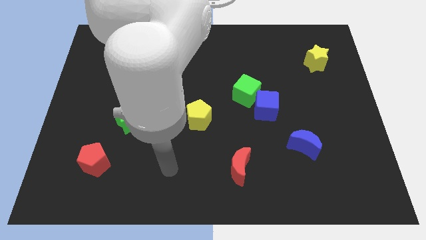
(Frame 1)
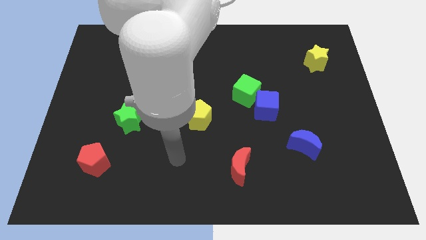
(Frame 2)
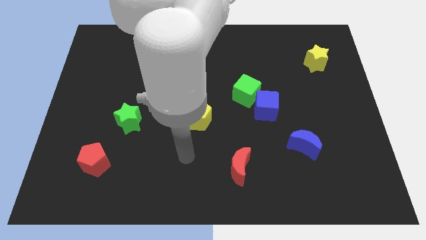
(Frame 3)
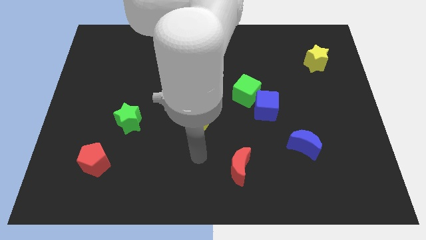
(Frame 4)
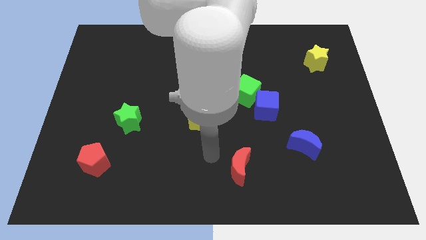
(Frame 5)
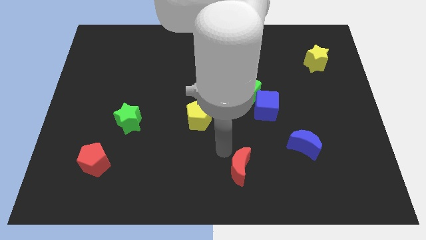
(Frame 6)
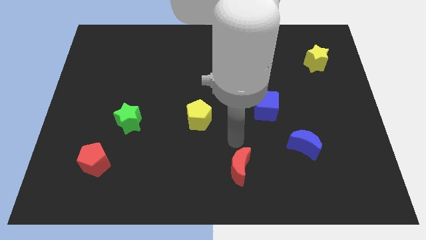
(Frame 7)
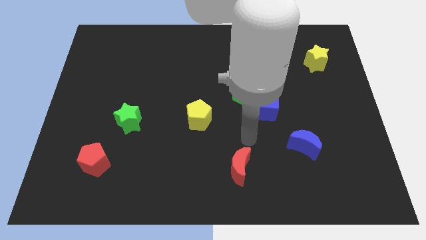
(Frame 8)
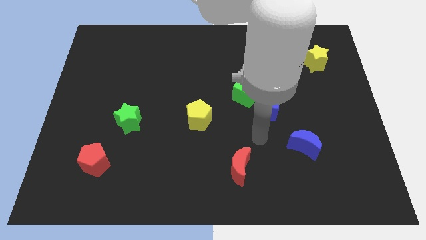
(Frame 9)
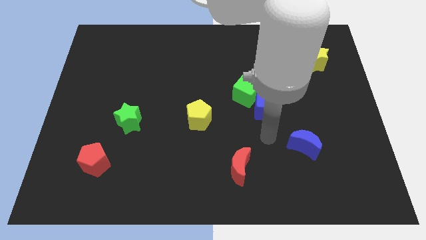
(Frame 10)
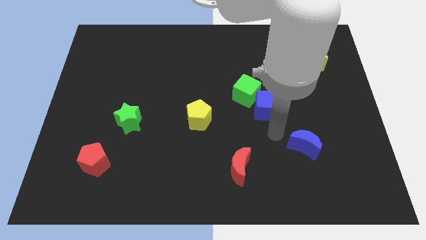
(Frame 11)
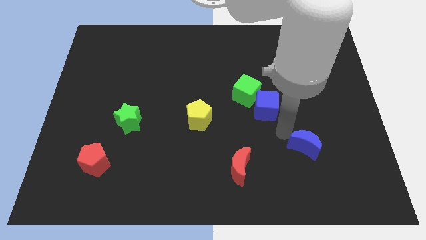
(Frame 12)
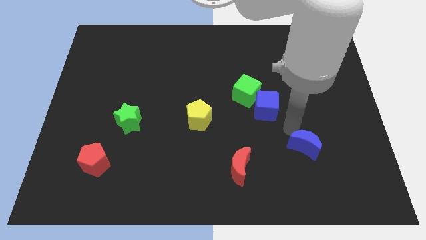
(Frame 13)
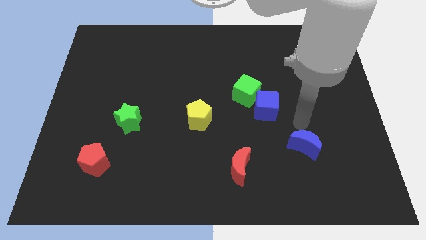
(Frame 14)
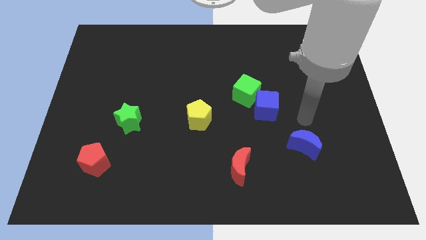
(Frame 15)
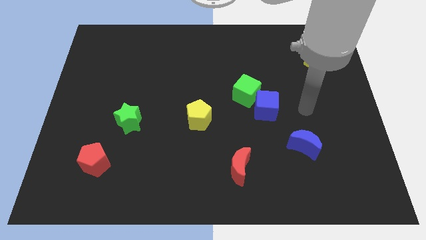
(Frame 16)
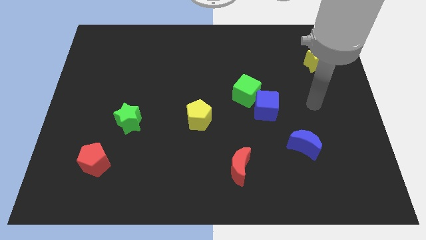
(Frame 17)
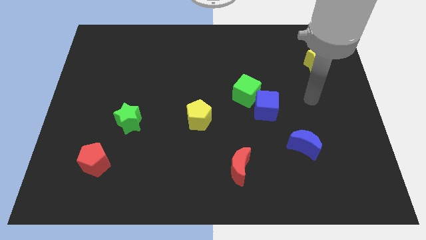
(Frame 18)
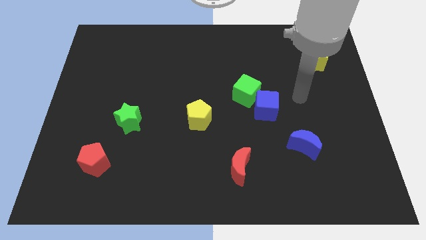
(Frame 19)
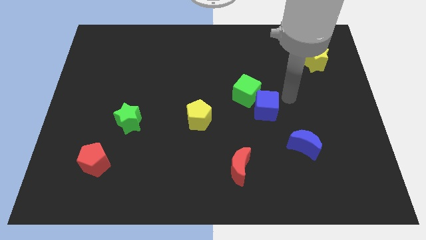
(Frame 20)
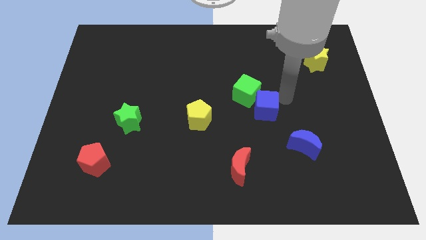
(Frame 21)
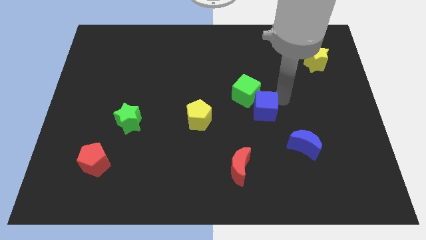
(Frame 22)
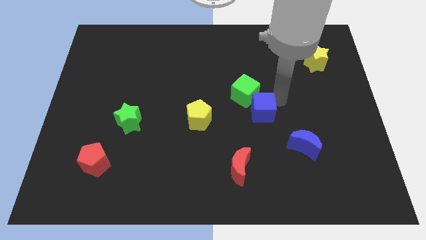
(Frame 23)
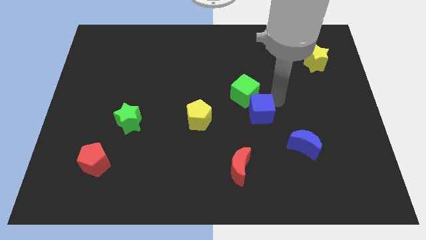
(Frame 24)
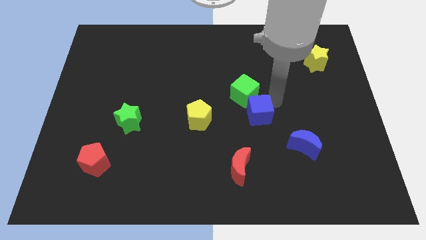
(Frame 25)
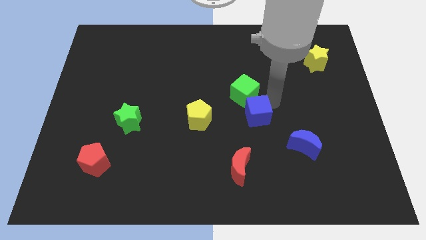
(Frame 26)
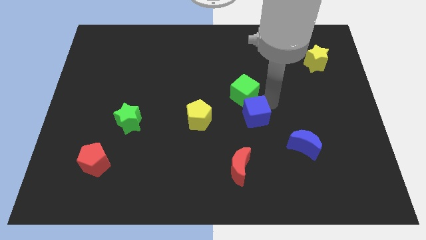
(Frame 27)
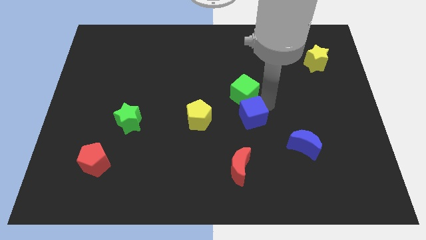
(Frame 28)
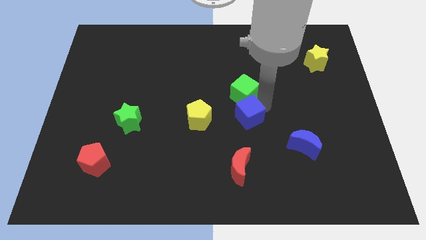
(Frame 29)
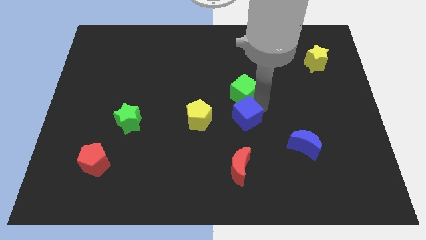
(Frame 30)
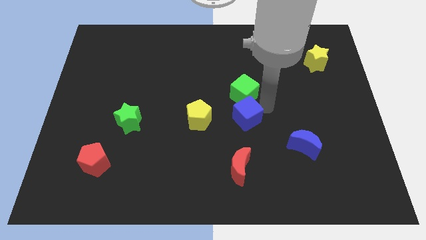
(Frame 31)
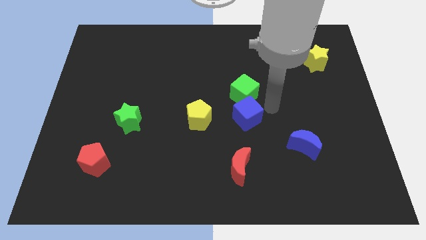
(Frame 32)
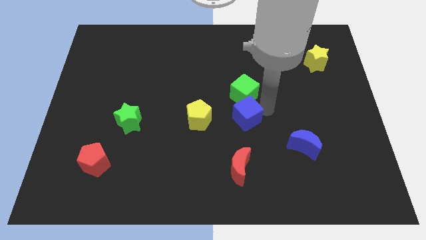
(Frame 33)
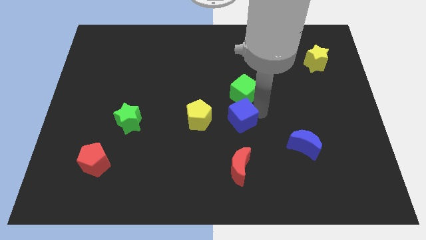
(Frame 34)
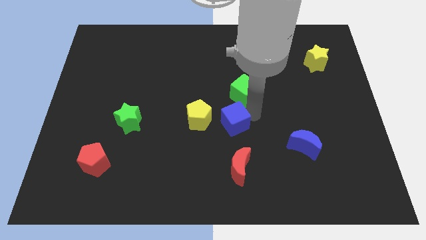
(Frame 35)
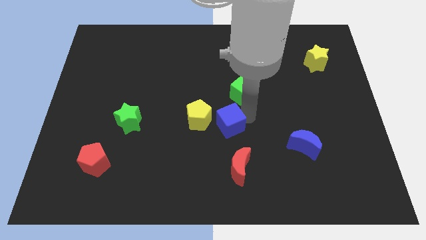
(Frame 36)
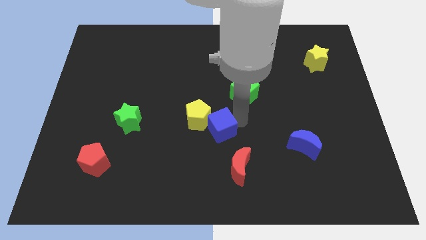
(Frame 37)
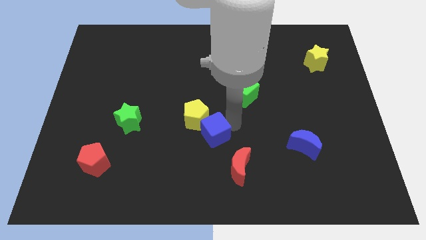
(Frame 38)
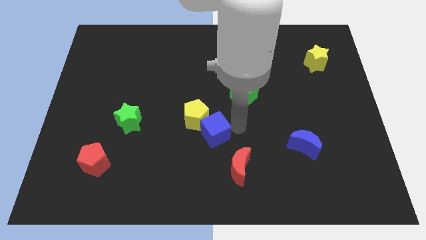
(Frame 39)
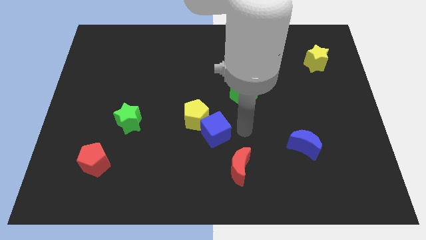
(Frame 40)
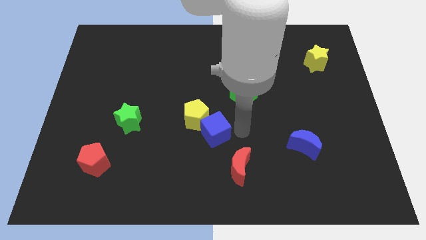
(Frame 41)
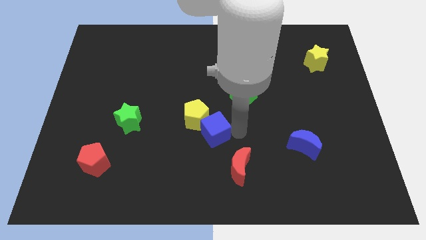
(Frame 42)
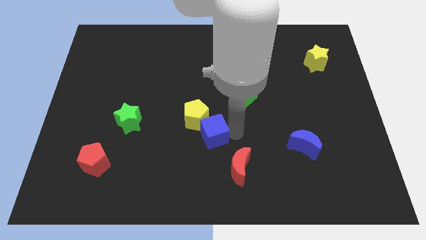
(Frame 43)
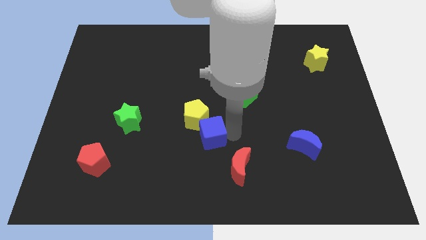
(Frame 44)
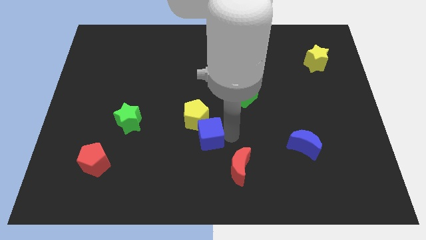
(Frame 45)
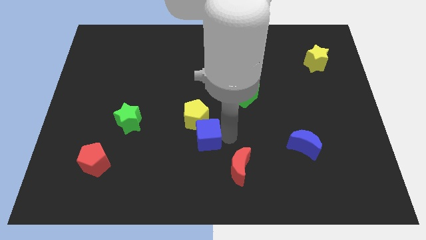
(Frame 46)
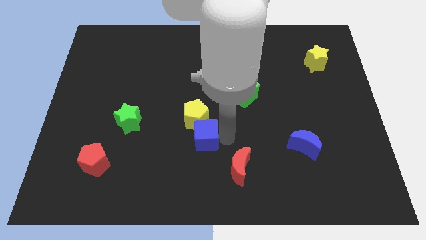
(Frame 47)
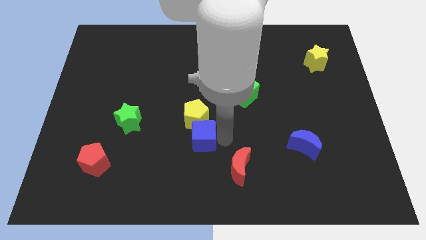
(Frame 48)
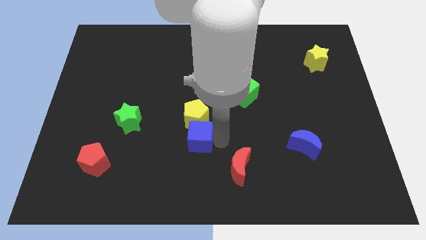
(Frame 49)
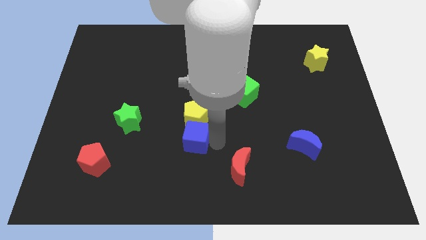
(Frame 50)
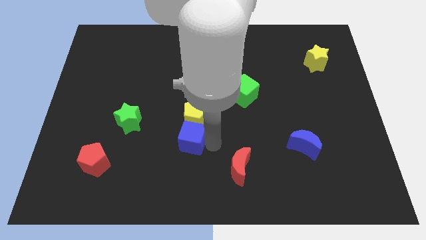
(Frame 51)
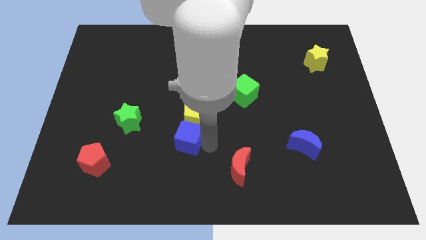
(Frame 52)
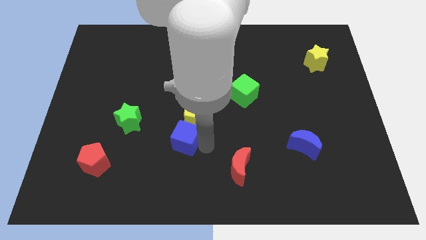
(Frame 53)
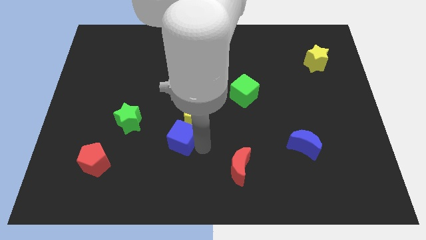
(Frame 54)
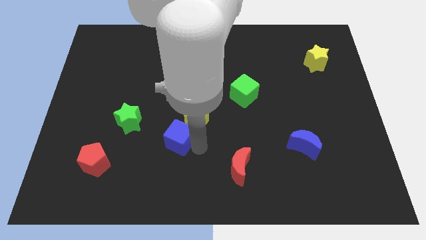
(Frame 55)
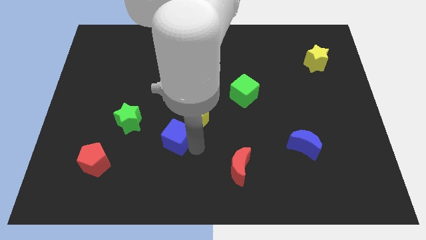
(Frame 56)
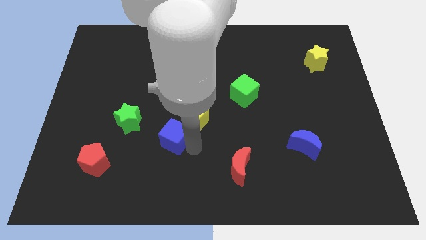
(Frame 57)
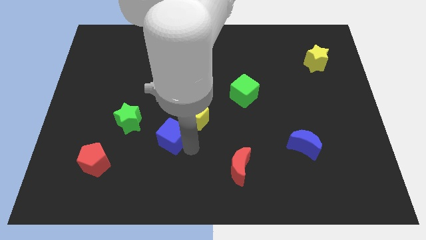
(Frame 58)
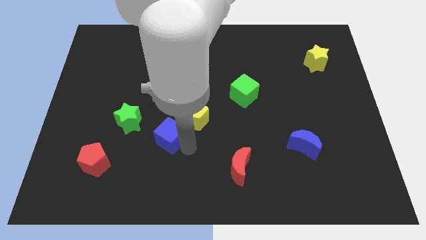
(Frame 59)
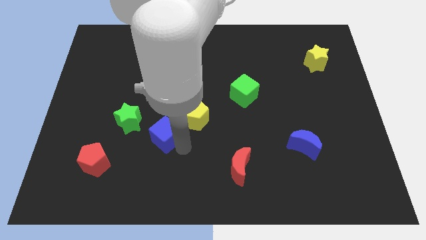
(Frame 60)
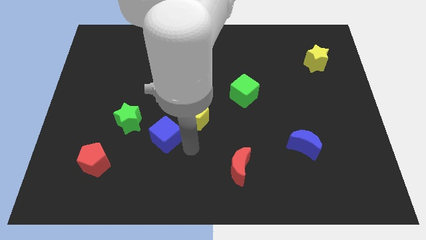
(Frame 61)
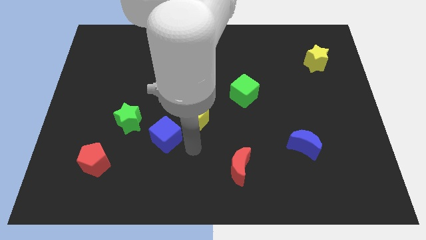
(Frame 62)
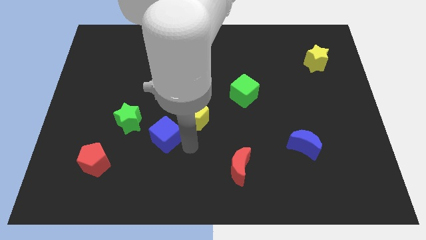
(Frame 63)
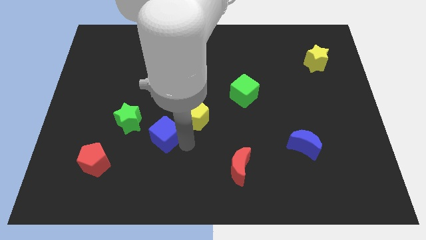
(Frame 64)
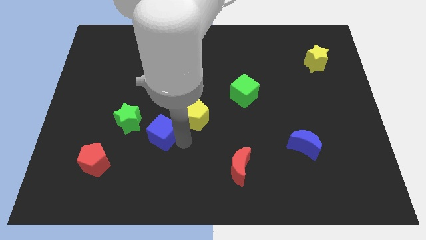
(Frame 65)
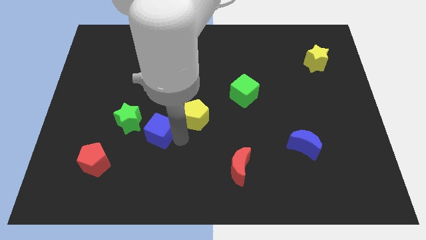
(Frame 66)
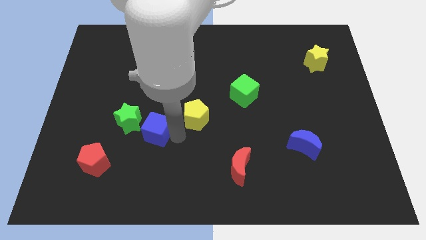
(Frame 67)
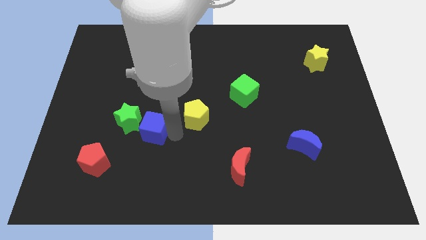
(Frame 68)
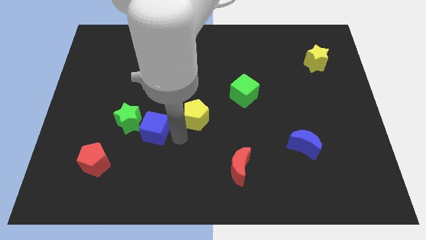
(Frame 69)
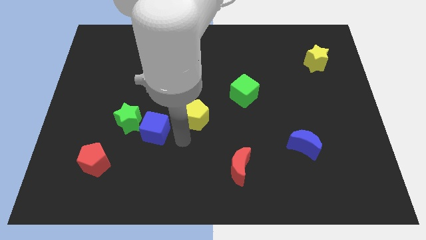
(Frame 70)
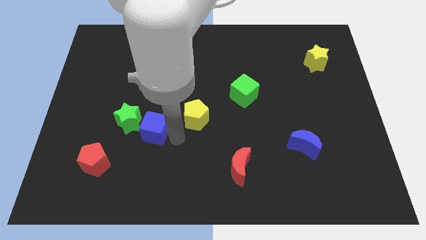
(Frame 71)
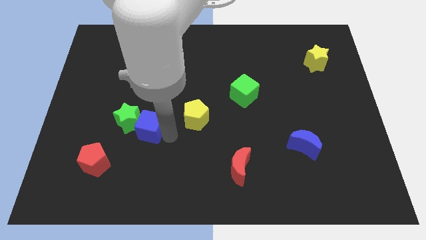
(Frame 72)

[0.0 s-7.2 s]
move the blue cube close to the green star

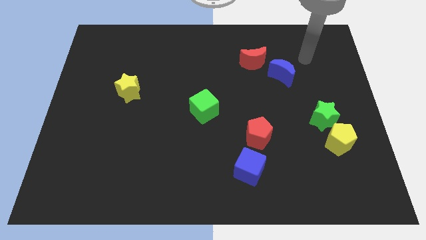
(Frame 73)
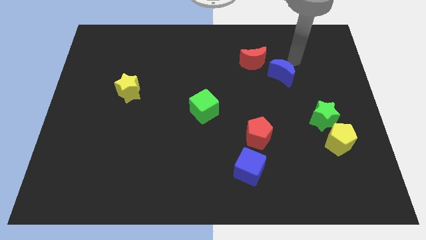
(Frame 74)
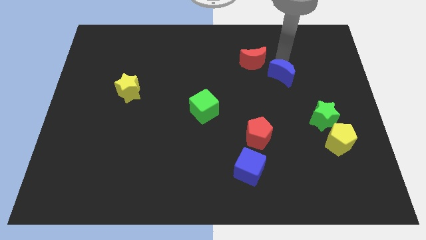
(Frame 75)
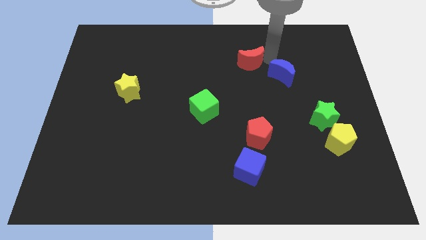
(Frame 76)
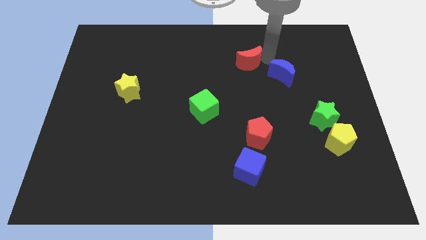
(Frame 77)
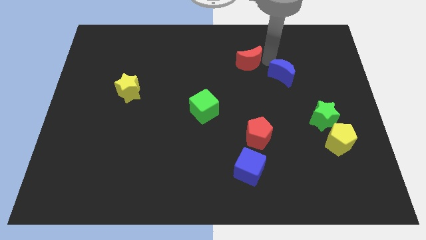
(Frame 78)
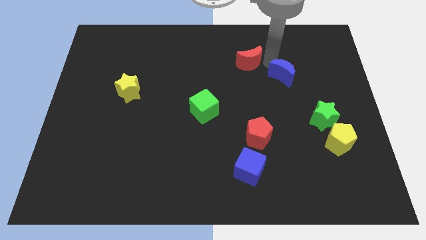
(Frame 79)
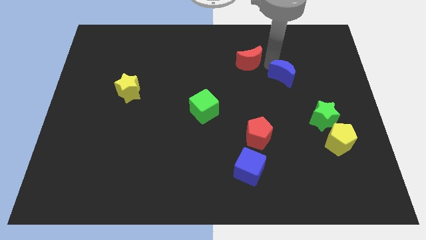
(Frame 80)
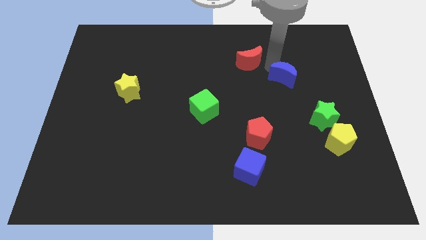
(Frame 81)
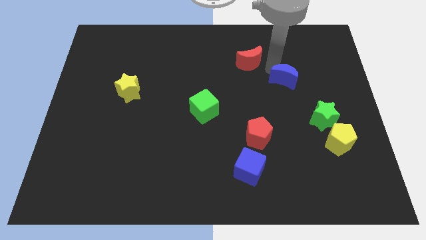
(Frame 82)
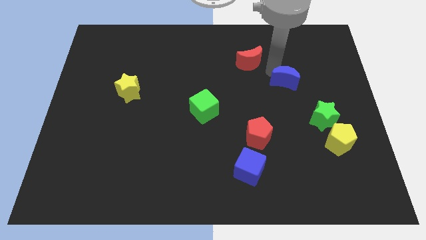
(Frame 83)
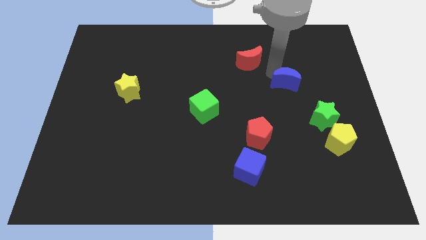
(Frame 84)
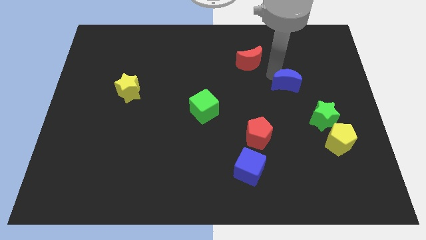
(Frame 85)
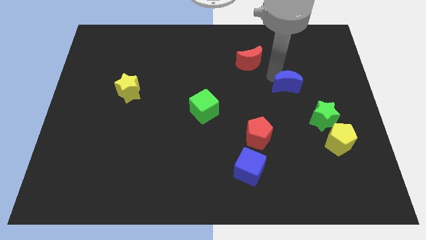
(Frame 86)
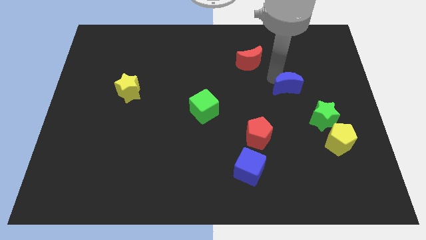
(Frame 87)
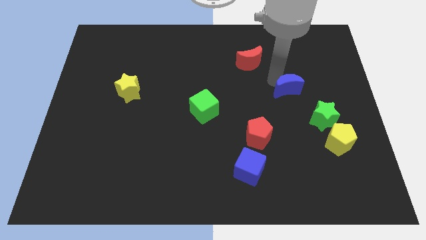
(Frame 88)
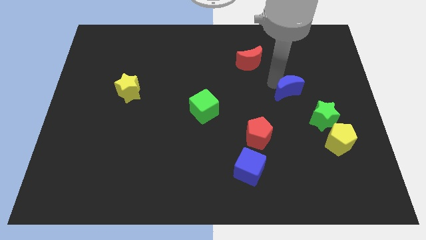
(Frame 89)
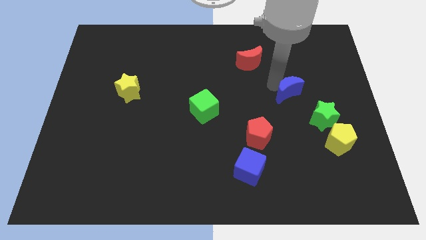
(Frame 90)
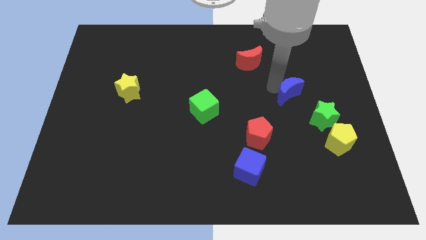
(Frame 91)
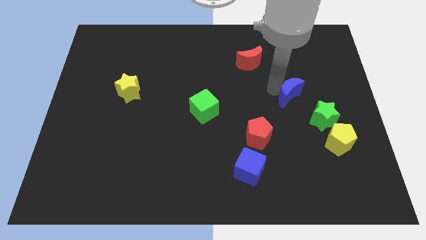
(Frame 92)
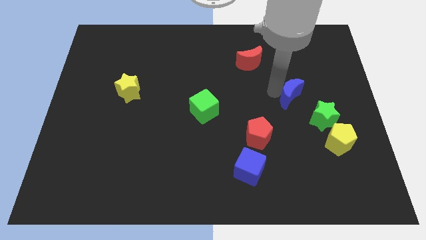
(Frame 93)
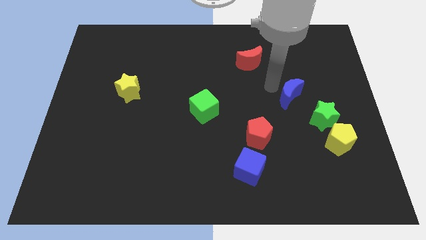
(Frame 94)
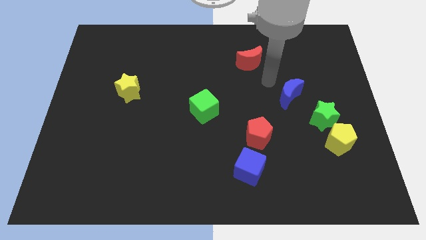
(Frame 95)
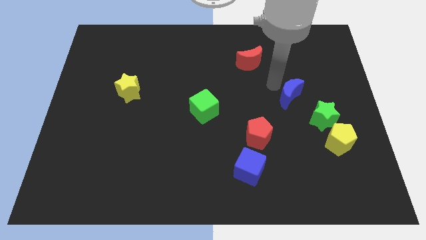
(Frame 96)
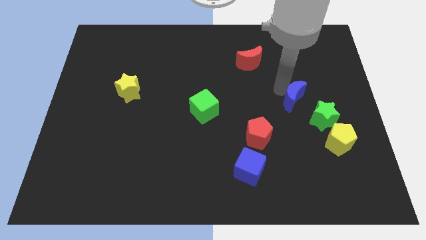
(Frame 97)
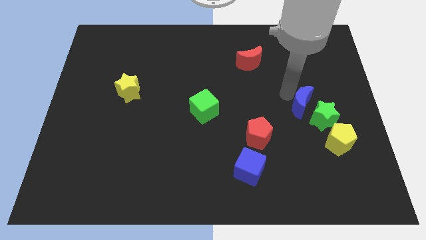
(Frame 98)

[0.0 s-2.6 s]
push the blue moon towards the green star
